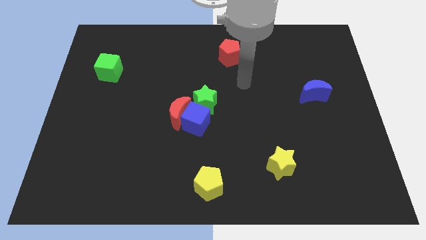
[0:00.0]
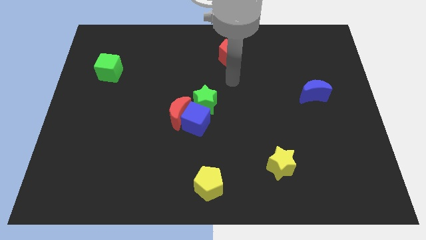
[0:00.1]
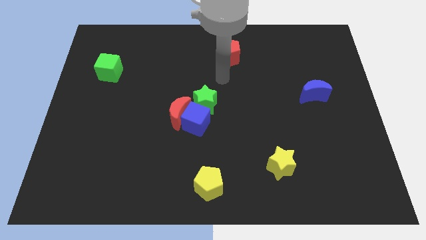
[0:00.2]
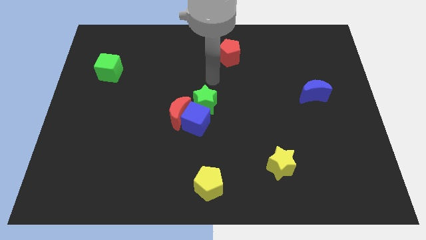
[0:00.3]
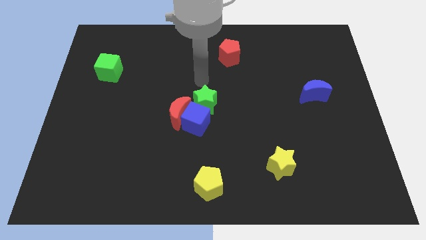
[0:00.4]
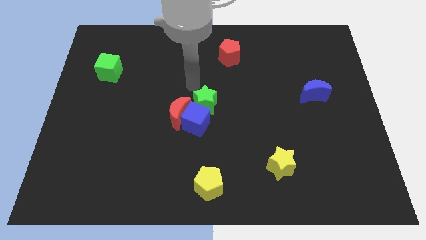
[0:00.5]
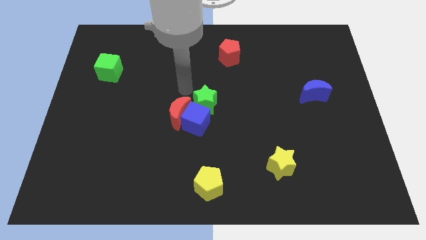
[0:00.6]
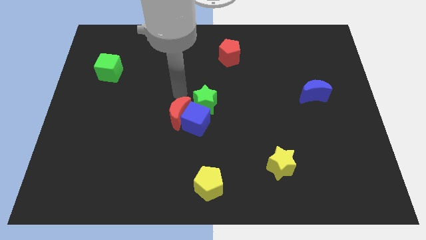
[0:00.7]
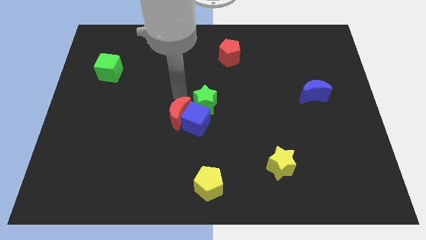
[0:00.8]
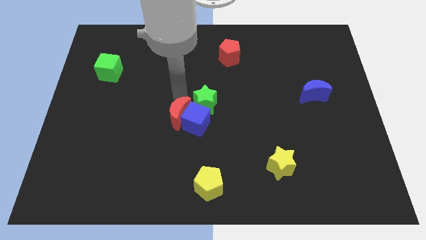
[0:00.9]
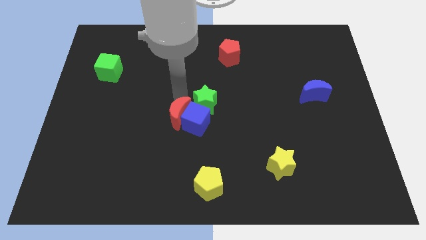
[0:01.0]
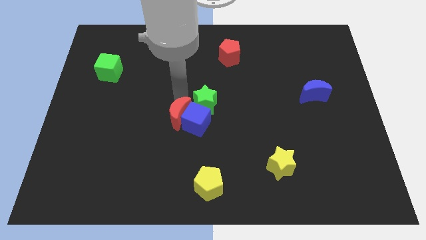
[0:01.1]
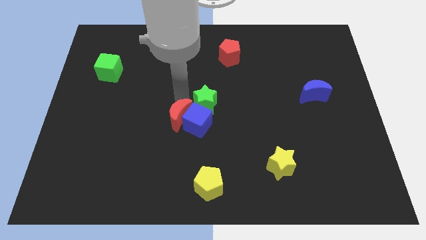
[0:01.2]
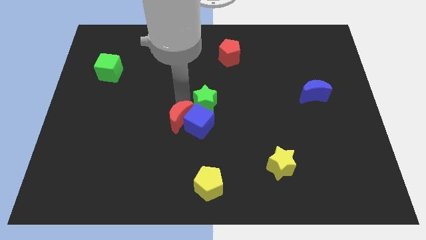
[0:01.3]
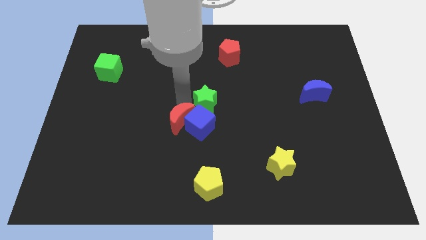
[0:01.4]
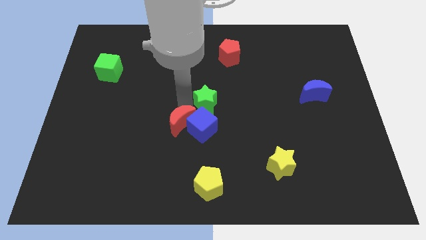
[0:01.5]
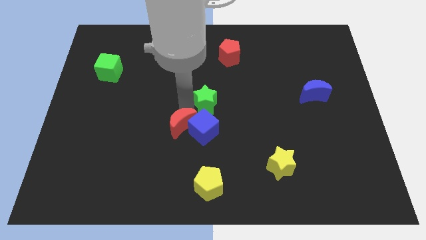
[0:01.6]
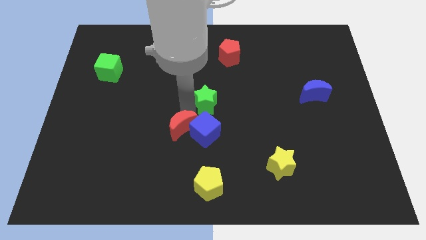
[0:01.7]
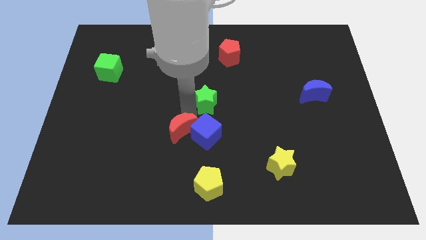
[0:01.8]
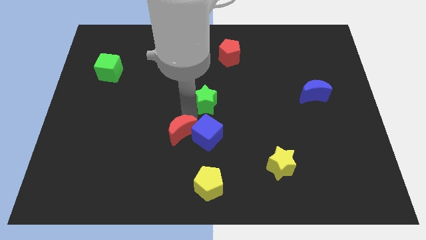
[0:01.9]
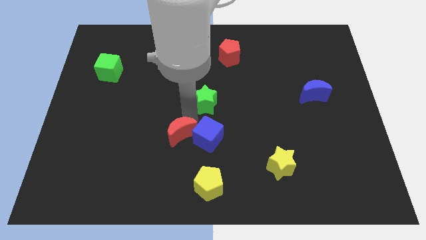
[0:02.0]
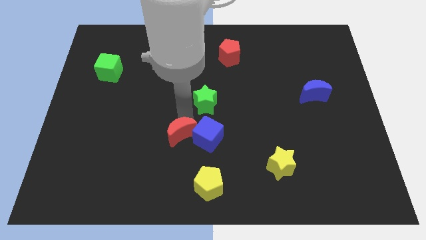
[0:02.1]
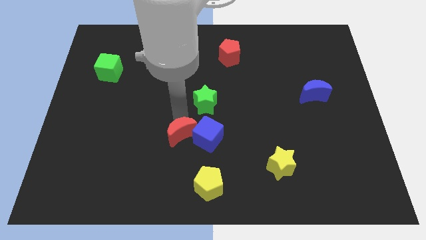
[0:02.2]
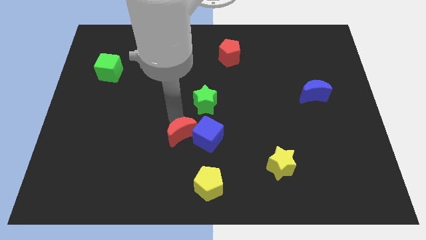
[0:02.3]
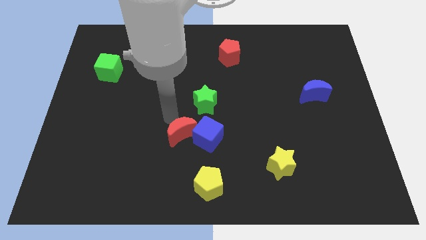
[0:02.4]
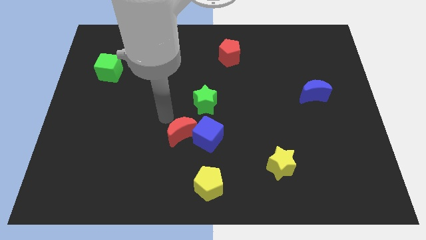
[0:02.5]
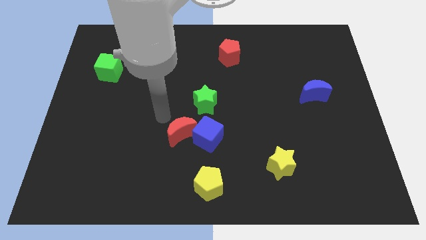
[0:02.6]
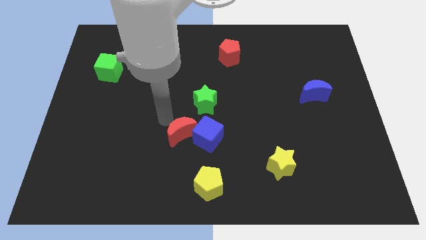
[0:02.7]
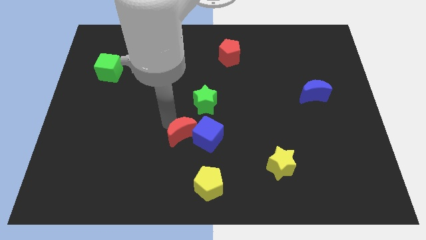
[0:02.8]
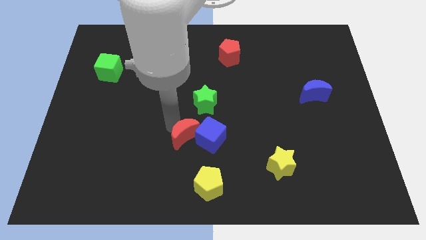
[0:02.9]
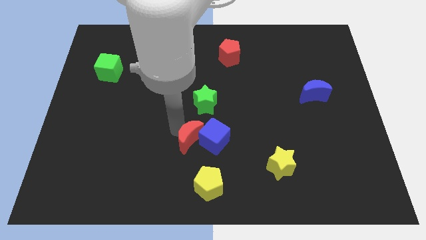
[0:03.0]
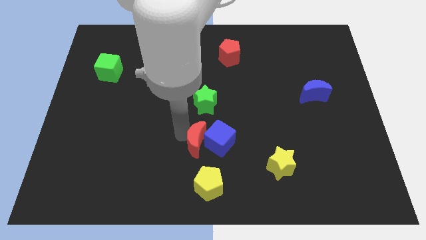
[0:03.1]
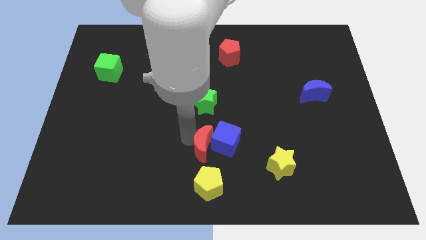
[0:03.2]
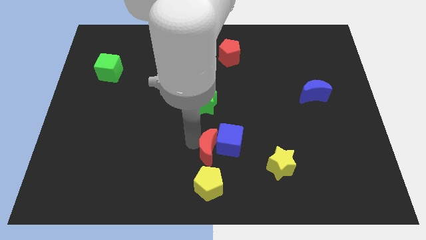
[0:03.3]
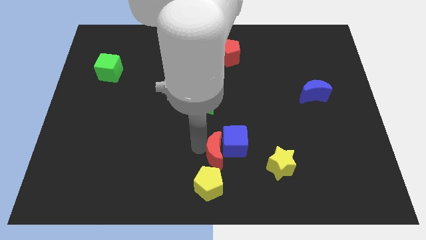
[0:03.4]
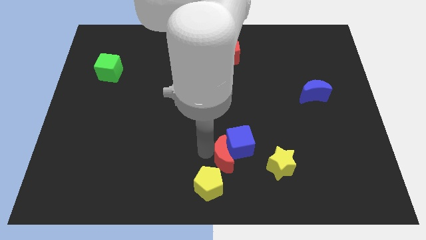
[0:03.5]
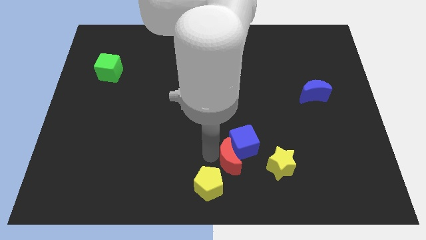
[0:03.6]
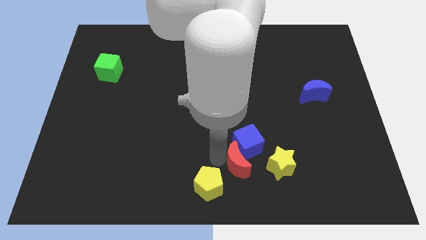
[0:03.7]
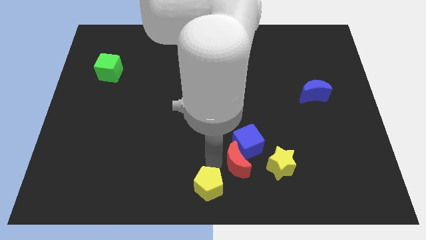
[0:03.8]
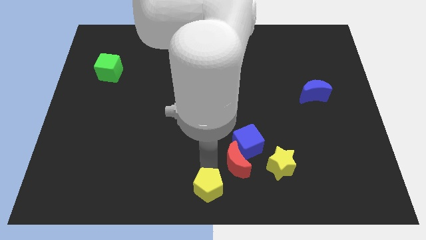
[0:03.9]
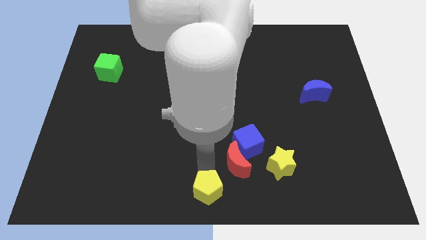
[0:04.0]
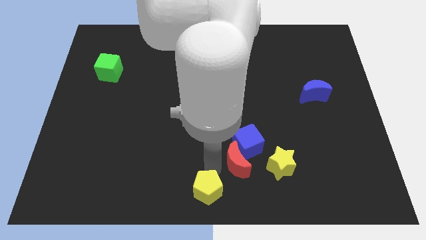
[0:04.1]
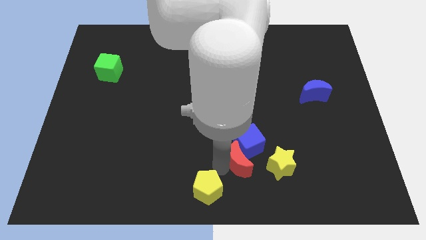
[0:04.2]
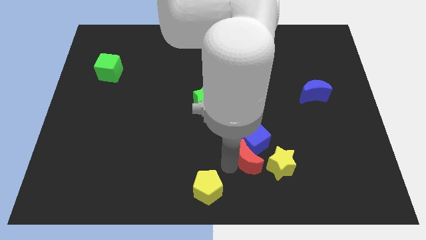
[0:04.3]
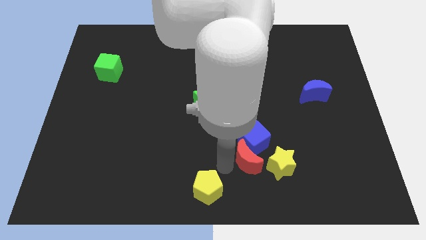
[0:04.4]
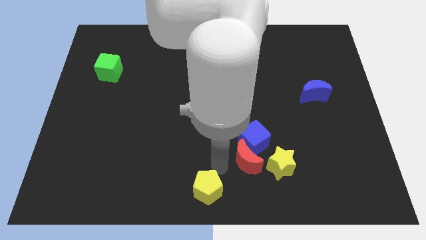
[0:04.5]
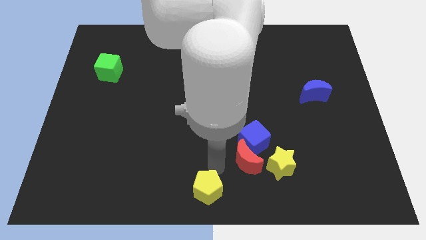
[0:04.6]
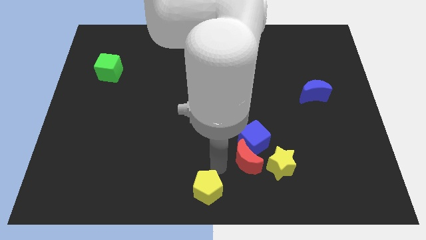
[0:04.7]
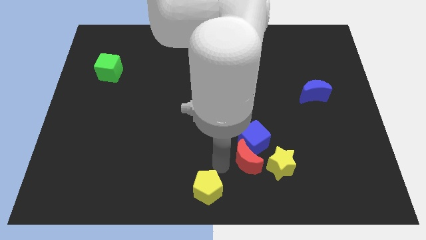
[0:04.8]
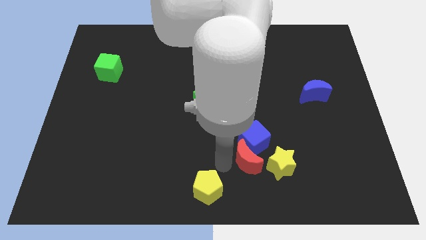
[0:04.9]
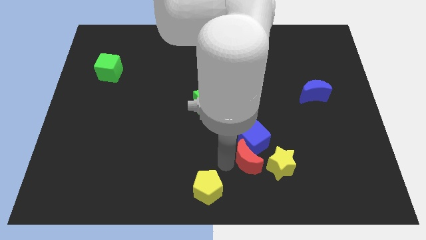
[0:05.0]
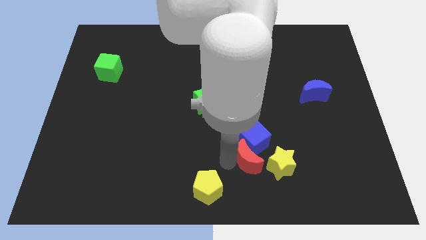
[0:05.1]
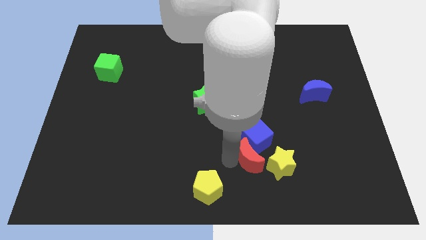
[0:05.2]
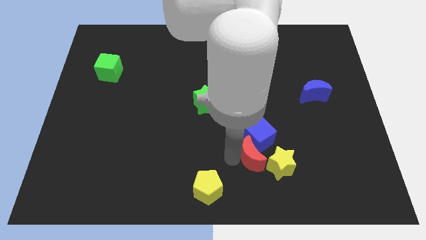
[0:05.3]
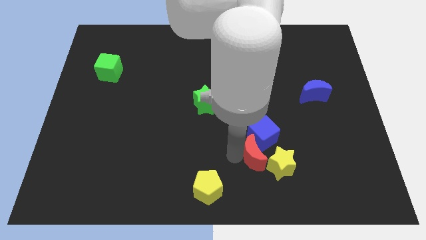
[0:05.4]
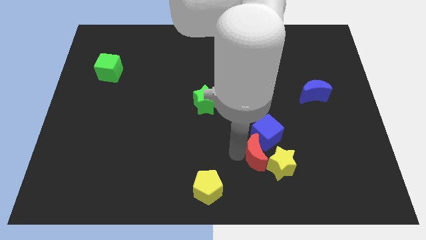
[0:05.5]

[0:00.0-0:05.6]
slide the red moon towards the yellow star

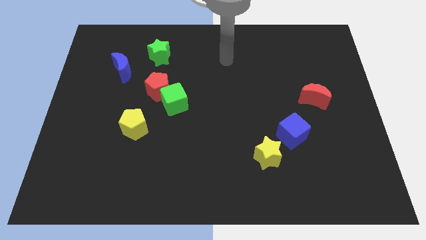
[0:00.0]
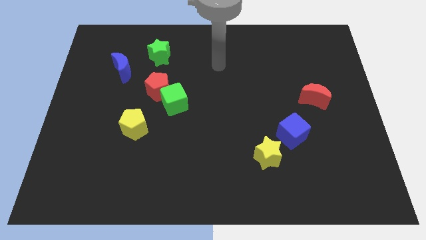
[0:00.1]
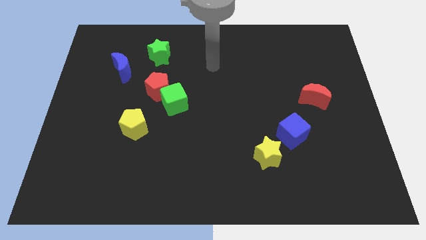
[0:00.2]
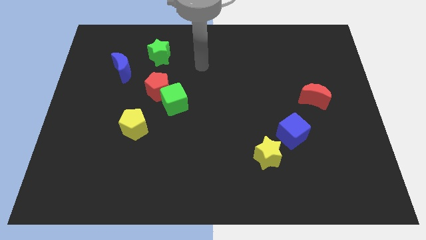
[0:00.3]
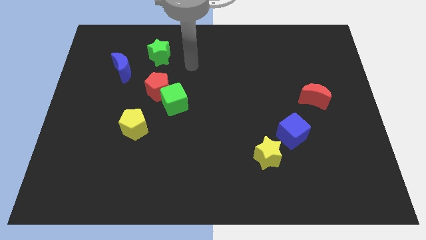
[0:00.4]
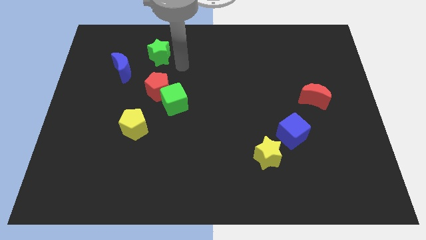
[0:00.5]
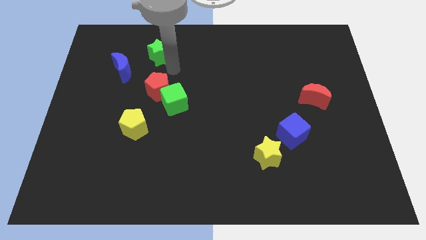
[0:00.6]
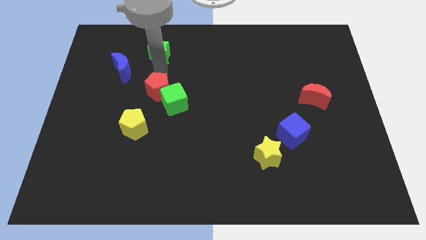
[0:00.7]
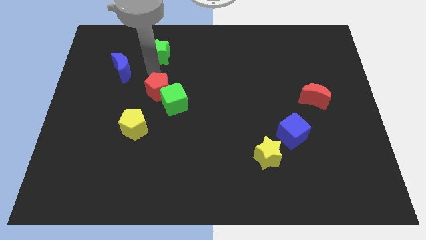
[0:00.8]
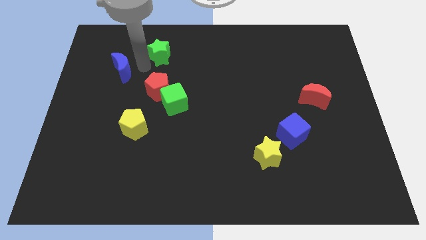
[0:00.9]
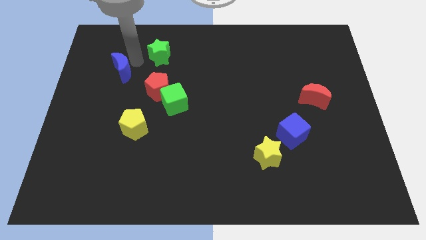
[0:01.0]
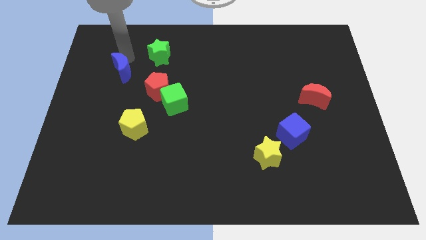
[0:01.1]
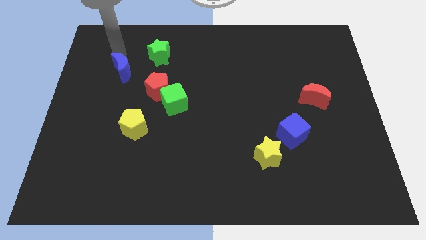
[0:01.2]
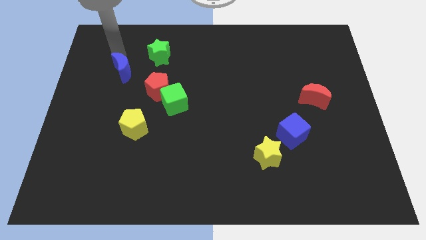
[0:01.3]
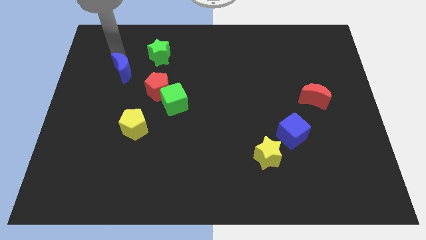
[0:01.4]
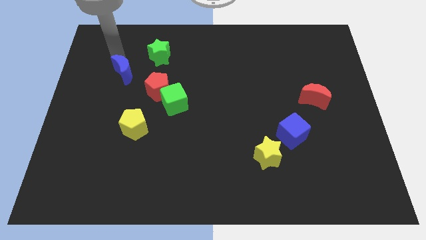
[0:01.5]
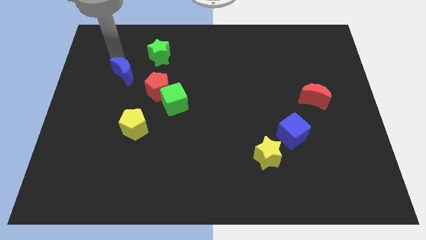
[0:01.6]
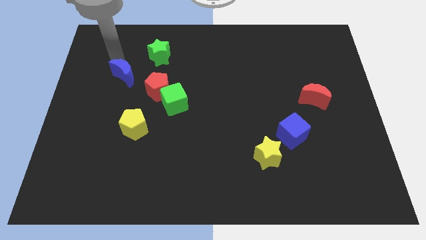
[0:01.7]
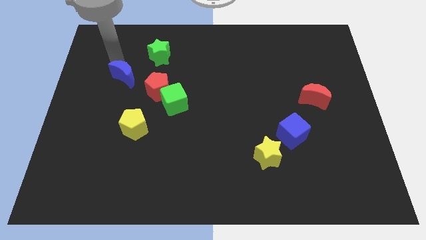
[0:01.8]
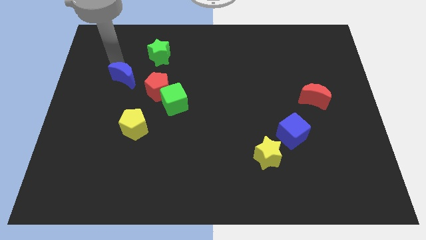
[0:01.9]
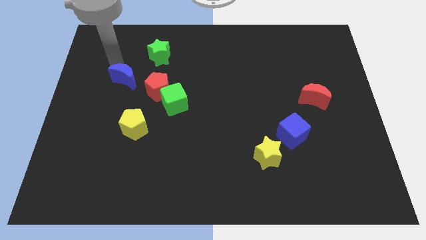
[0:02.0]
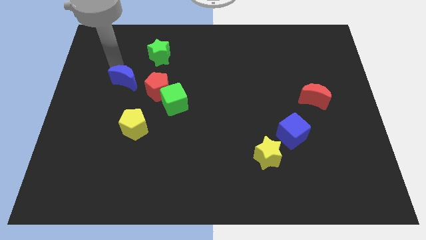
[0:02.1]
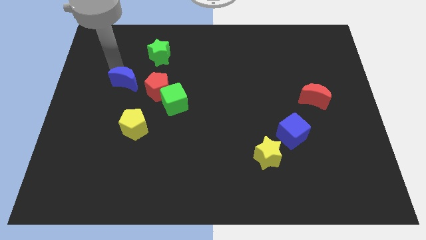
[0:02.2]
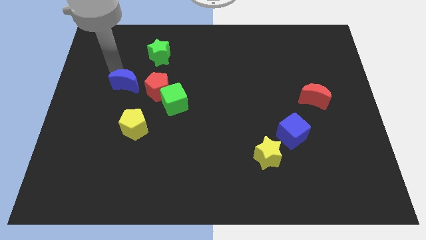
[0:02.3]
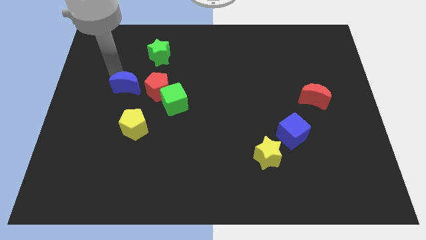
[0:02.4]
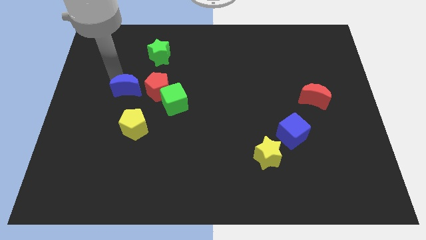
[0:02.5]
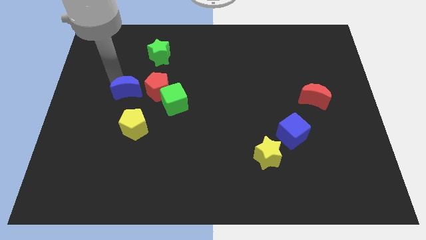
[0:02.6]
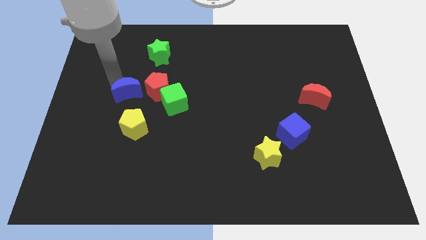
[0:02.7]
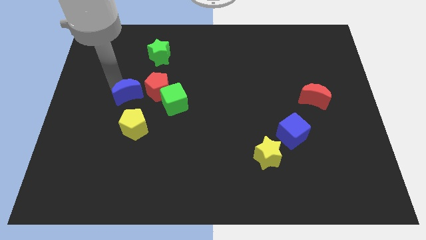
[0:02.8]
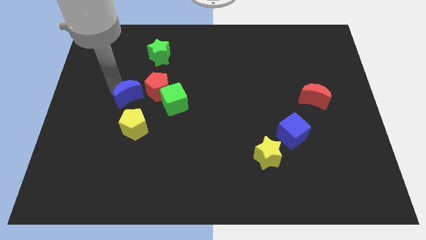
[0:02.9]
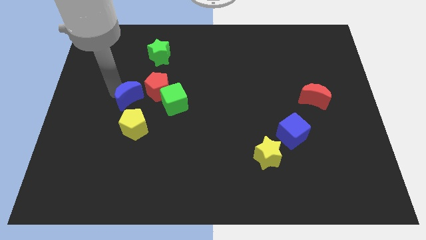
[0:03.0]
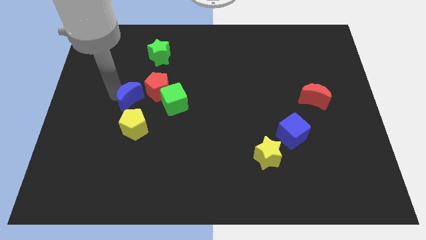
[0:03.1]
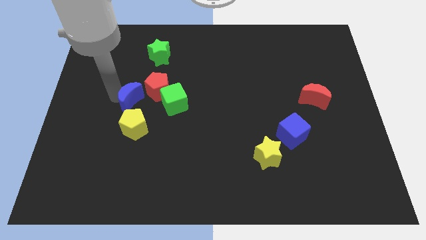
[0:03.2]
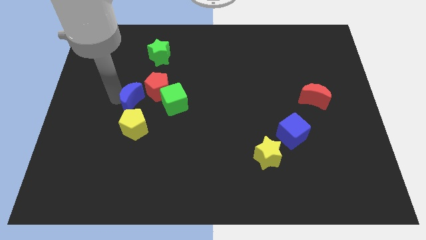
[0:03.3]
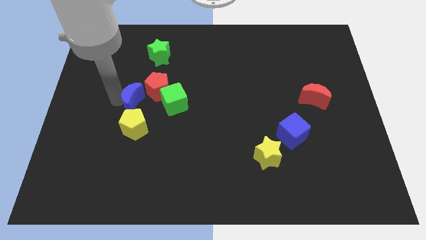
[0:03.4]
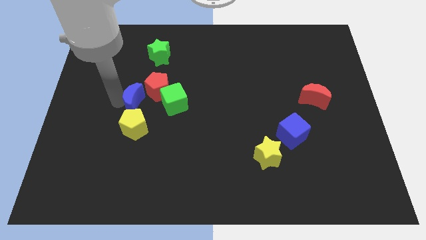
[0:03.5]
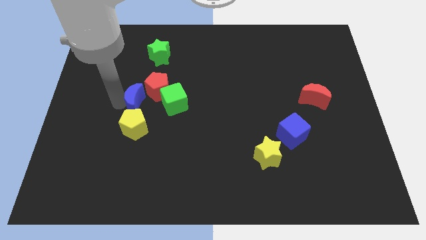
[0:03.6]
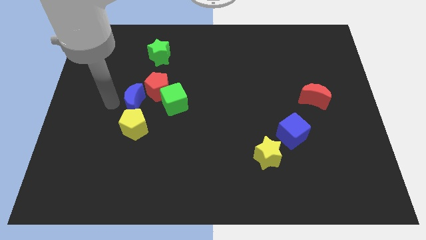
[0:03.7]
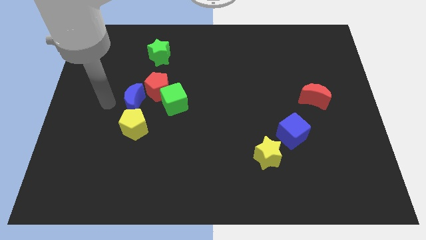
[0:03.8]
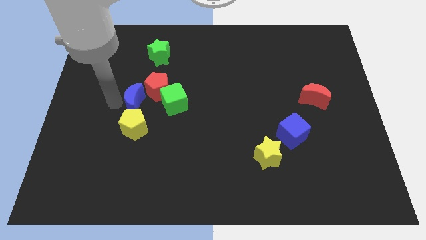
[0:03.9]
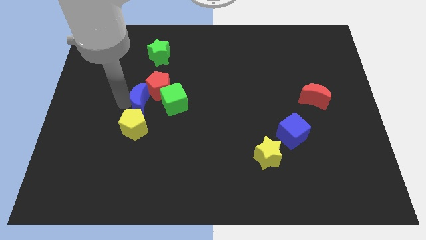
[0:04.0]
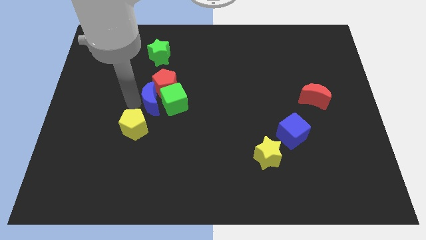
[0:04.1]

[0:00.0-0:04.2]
push the blue moon next to the green cube
